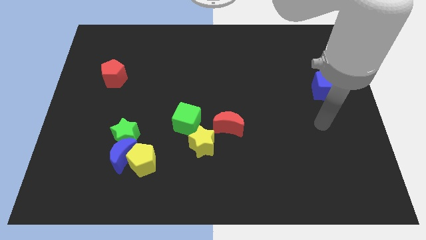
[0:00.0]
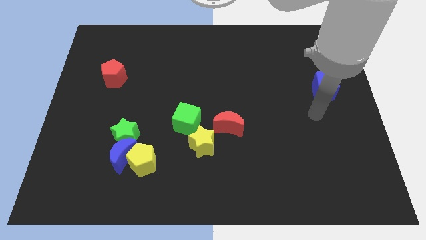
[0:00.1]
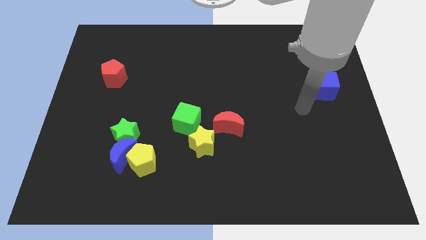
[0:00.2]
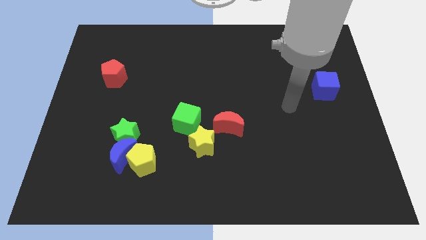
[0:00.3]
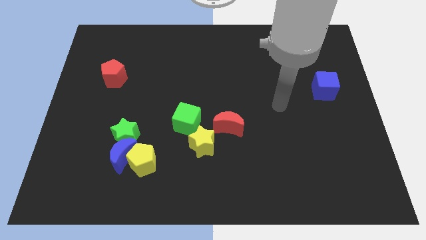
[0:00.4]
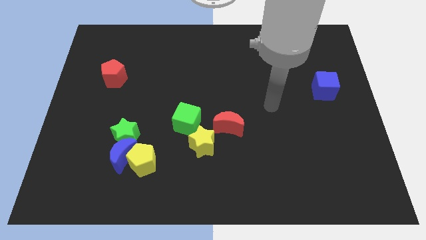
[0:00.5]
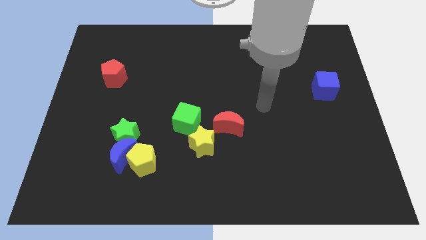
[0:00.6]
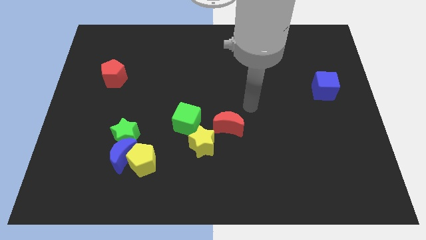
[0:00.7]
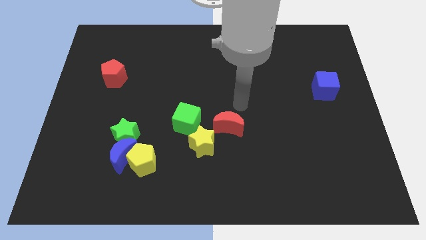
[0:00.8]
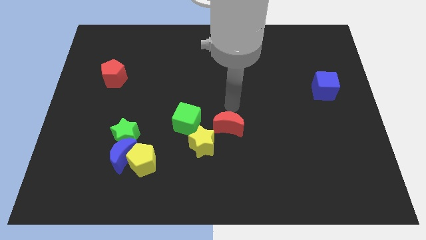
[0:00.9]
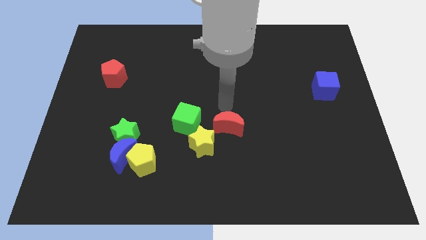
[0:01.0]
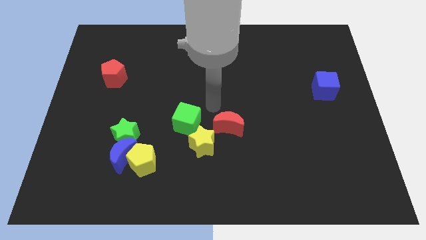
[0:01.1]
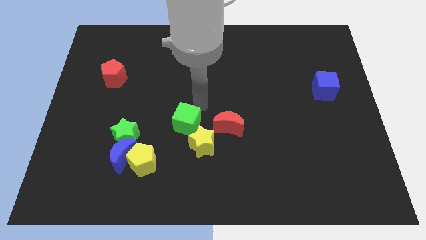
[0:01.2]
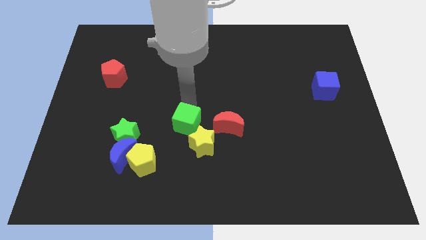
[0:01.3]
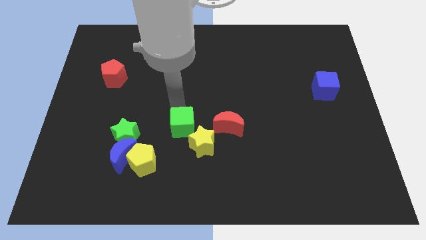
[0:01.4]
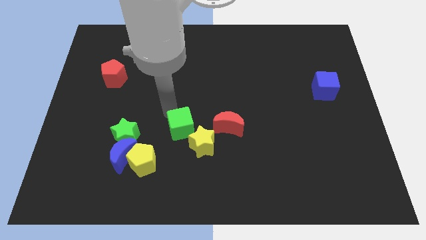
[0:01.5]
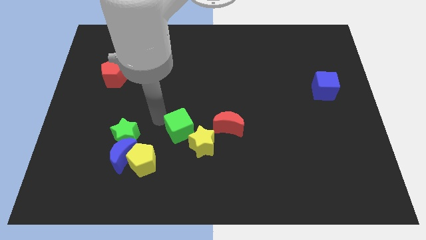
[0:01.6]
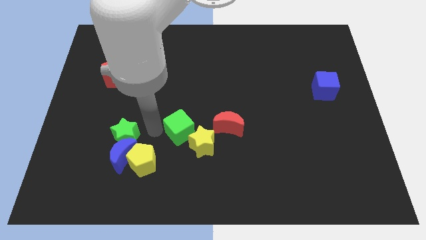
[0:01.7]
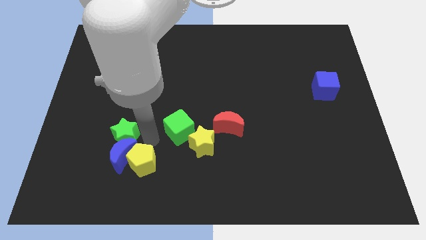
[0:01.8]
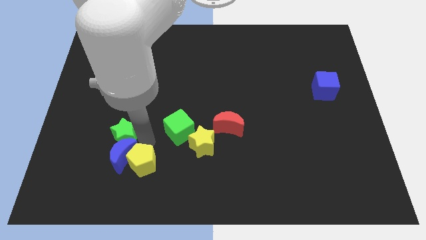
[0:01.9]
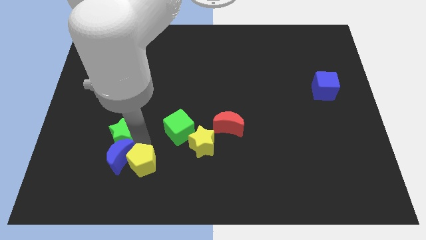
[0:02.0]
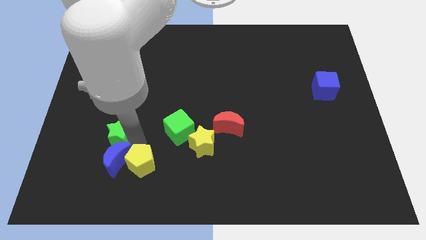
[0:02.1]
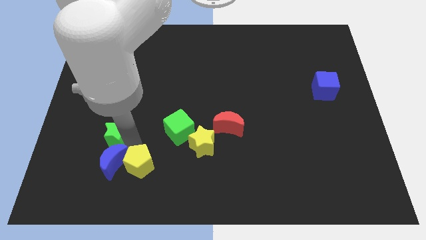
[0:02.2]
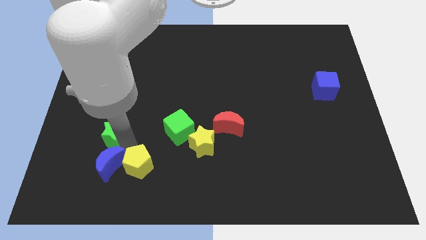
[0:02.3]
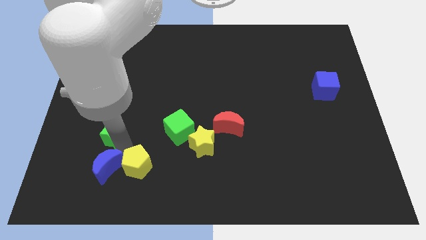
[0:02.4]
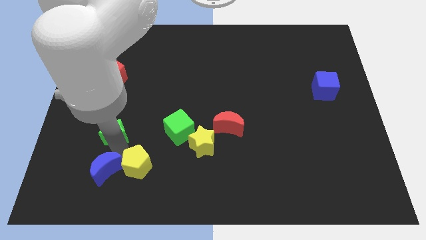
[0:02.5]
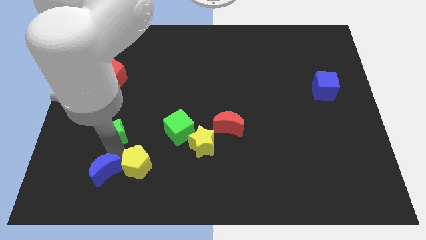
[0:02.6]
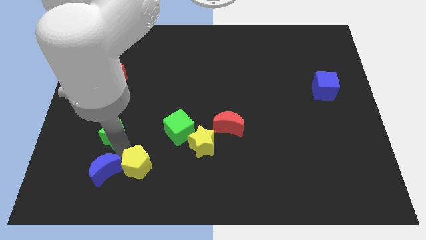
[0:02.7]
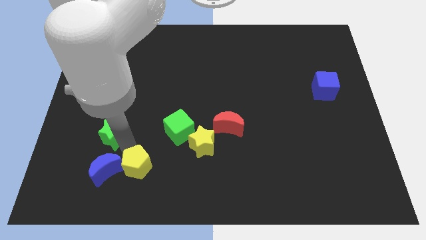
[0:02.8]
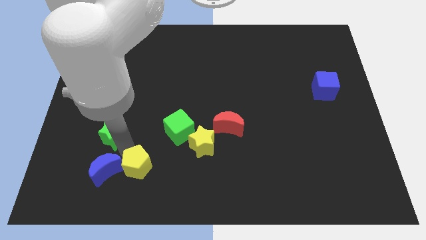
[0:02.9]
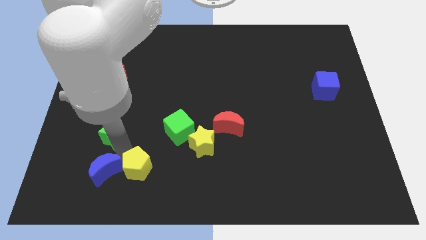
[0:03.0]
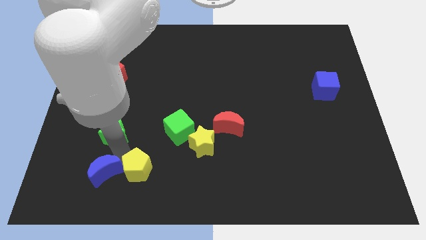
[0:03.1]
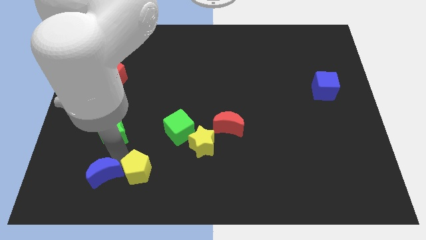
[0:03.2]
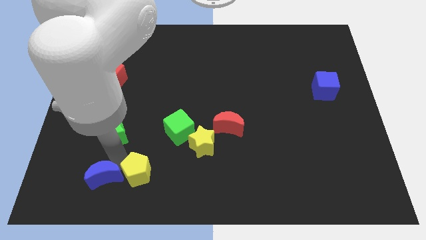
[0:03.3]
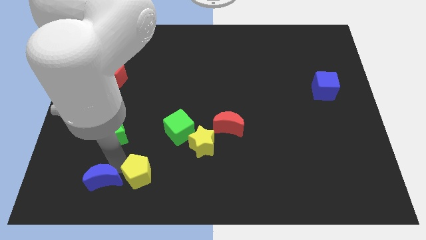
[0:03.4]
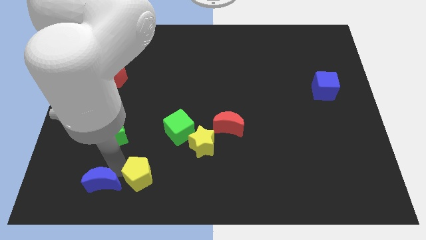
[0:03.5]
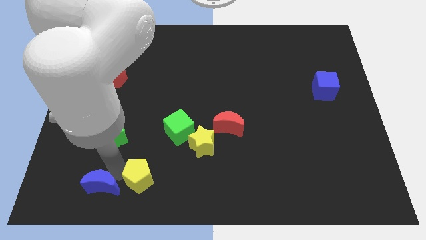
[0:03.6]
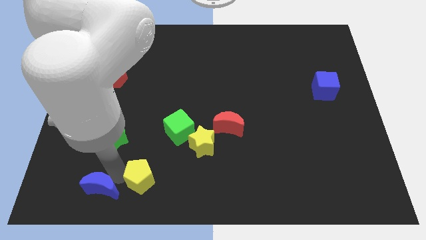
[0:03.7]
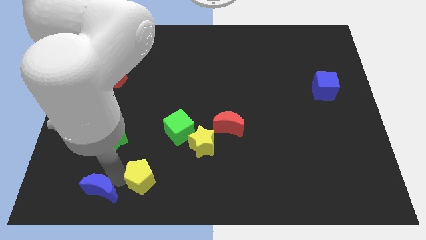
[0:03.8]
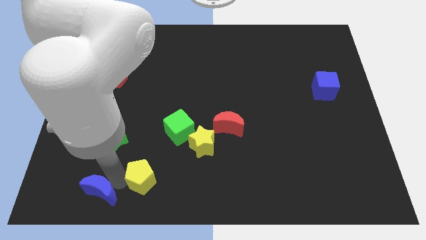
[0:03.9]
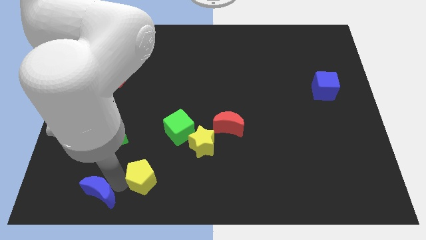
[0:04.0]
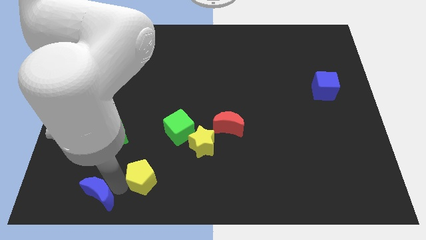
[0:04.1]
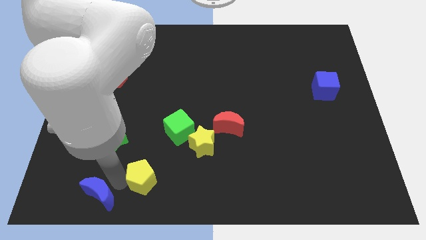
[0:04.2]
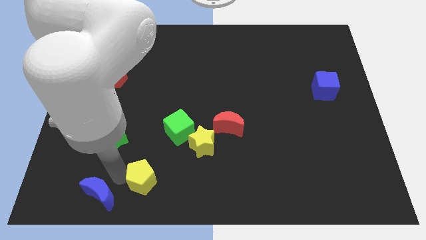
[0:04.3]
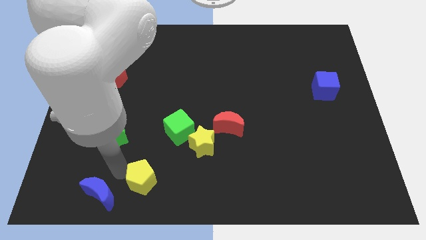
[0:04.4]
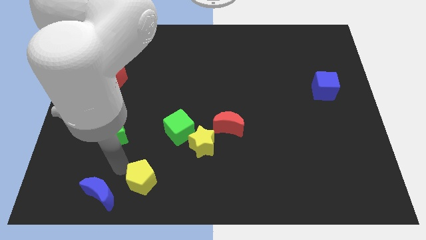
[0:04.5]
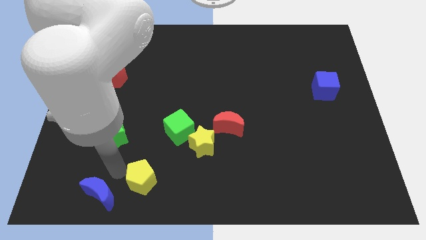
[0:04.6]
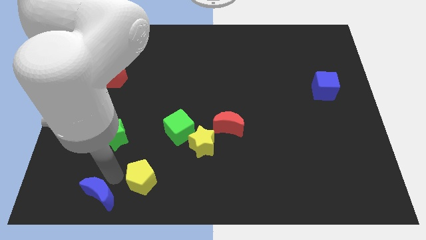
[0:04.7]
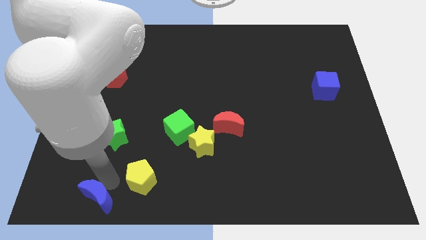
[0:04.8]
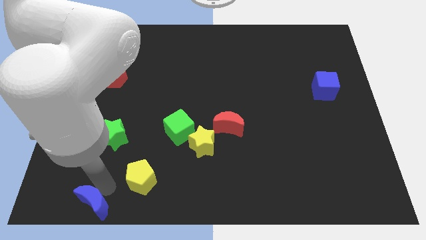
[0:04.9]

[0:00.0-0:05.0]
move the blue moon away from the green star and yellow pentagon

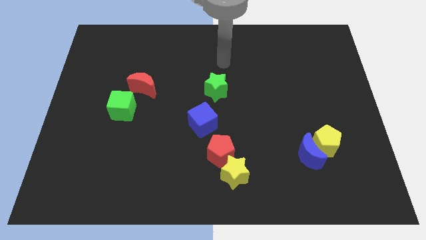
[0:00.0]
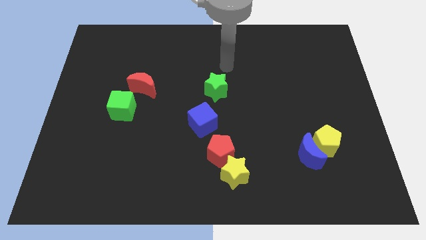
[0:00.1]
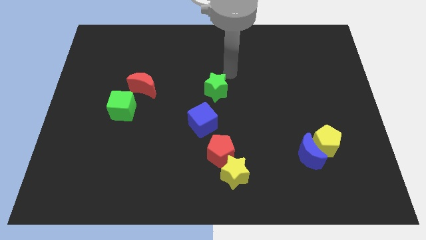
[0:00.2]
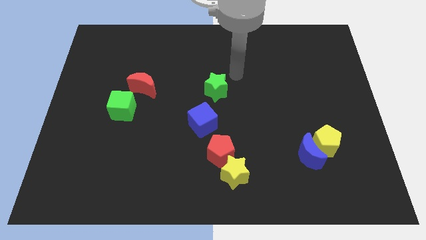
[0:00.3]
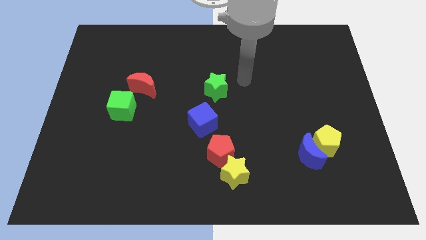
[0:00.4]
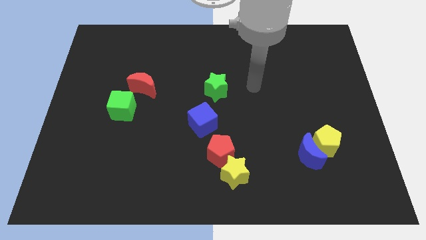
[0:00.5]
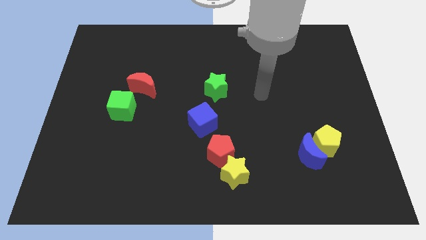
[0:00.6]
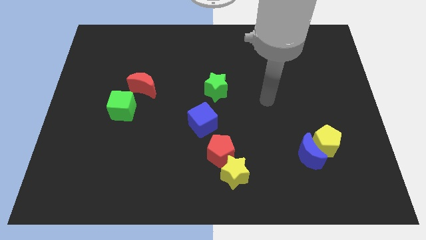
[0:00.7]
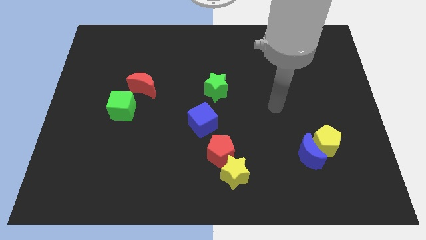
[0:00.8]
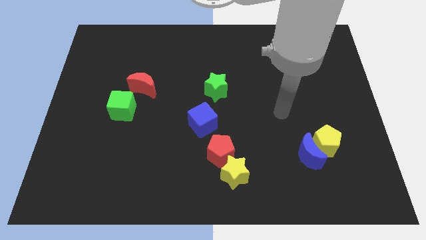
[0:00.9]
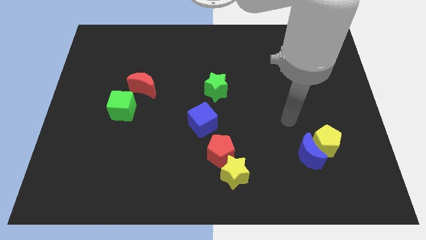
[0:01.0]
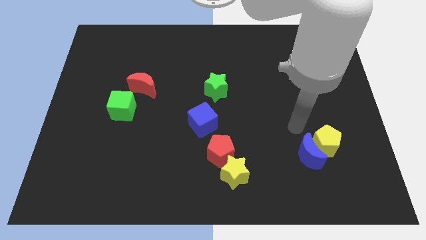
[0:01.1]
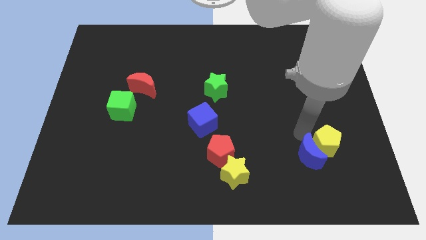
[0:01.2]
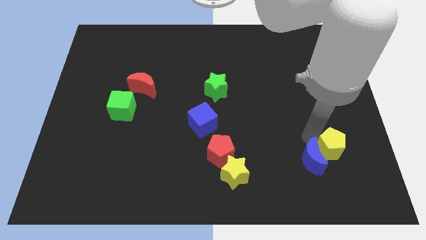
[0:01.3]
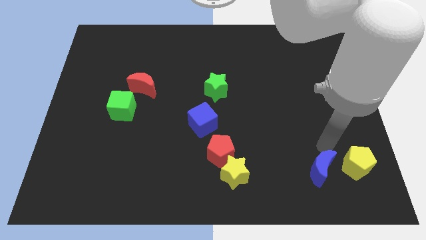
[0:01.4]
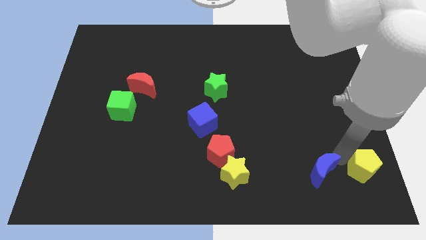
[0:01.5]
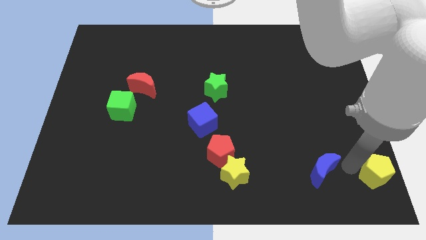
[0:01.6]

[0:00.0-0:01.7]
pull the blue moon apart from the yellow pentagon

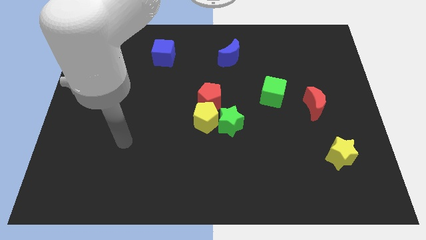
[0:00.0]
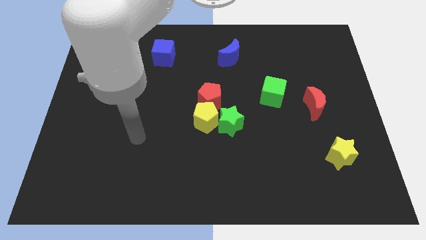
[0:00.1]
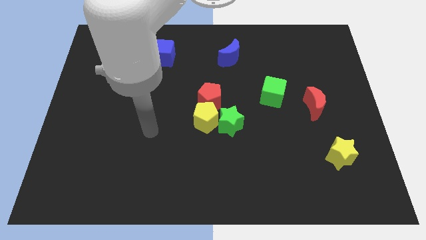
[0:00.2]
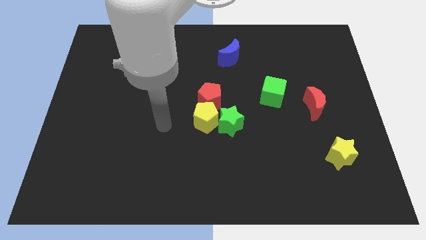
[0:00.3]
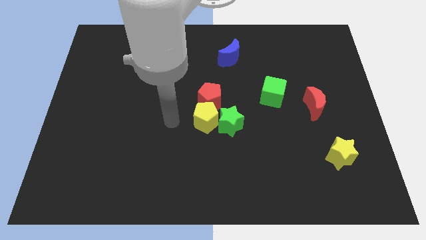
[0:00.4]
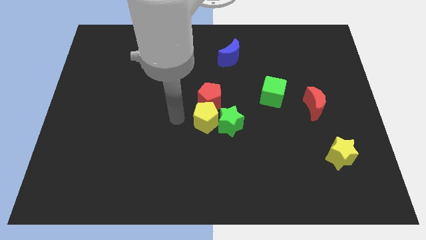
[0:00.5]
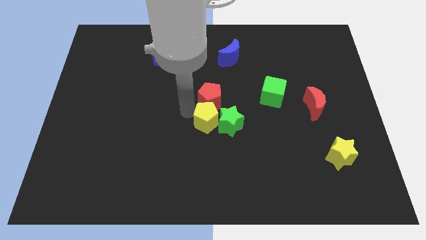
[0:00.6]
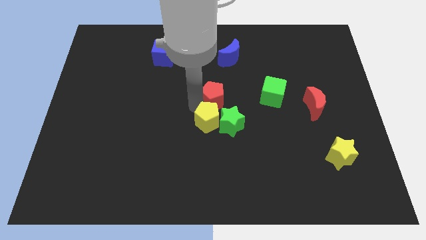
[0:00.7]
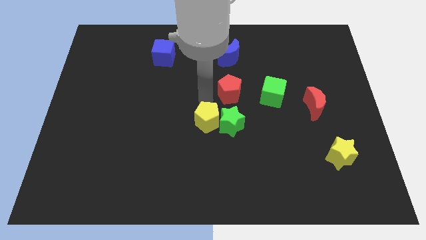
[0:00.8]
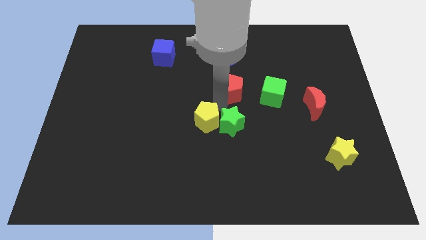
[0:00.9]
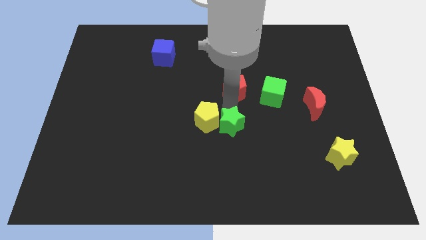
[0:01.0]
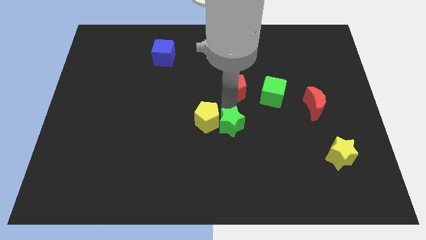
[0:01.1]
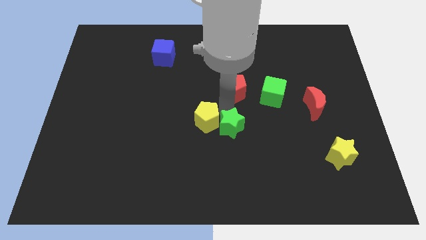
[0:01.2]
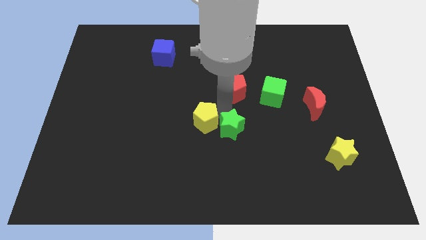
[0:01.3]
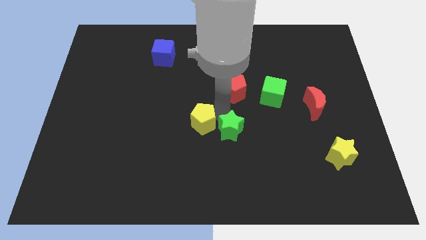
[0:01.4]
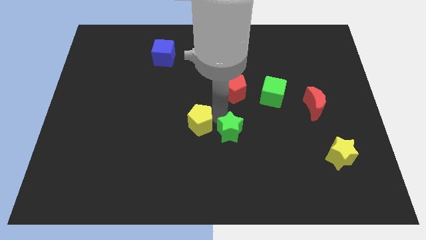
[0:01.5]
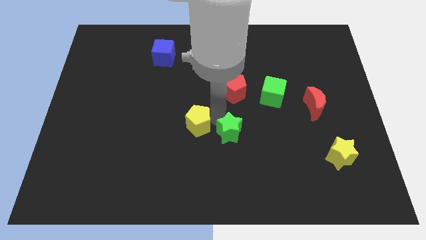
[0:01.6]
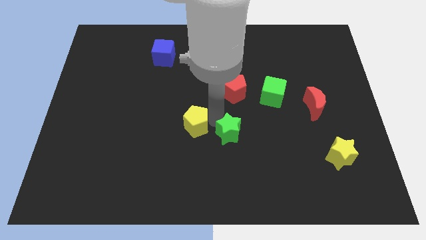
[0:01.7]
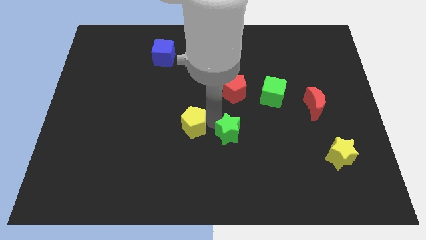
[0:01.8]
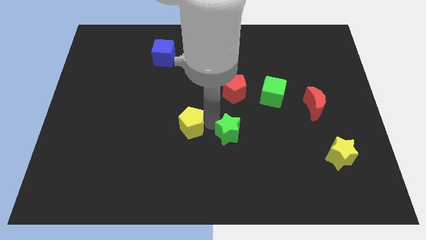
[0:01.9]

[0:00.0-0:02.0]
pull the yellow pentagon apart from the green star and red pentagon

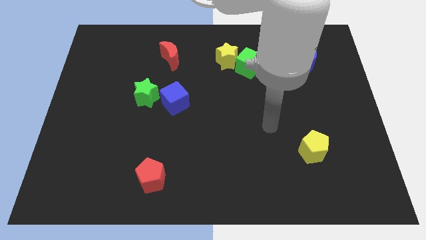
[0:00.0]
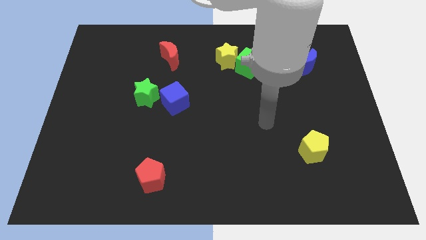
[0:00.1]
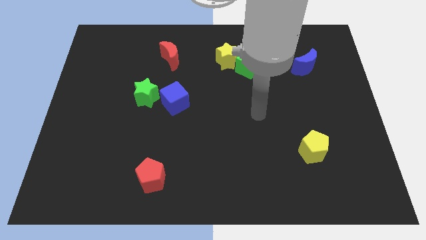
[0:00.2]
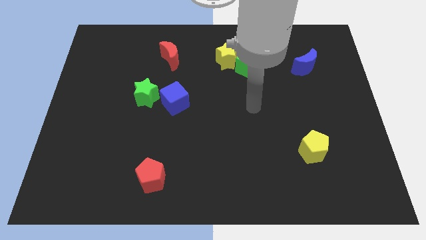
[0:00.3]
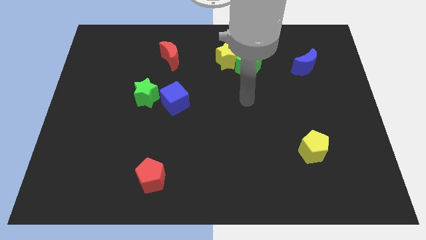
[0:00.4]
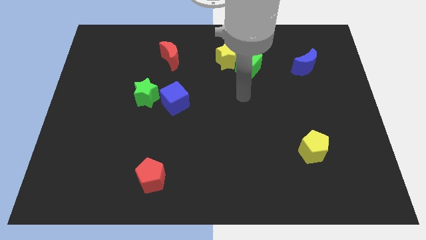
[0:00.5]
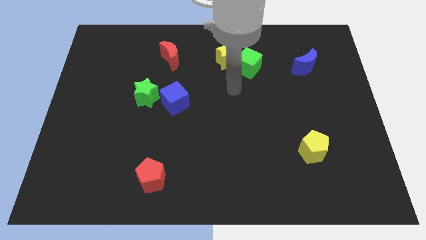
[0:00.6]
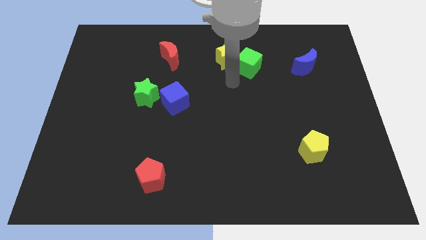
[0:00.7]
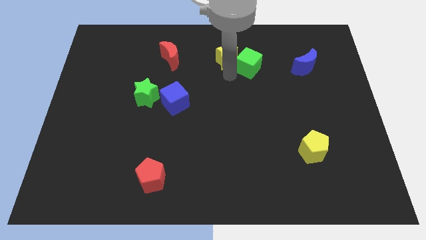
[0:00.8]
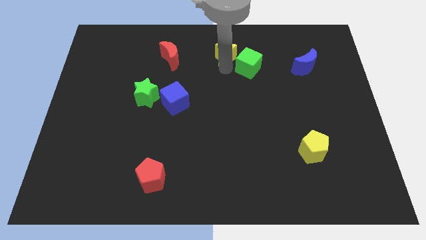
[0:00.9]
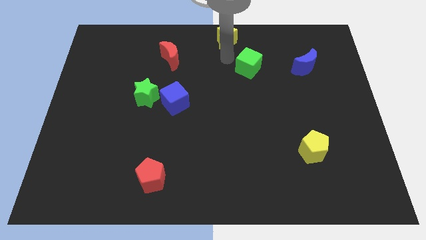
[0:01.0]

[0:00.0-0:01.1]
separate the green cube from the yellow star
